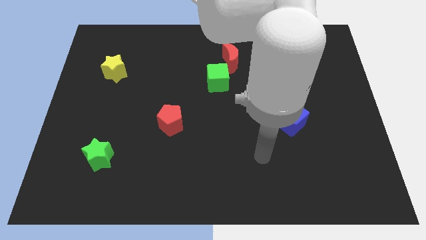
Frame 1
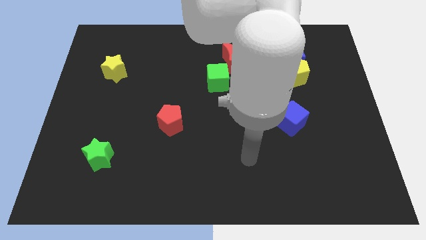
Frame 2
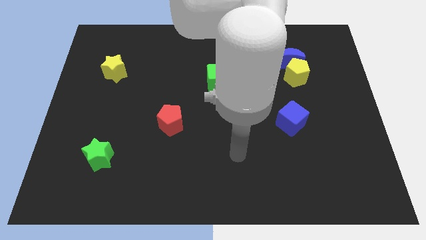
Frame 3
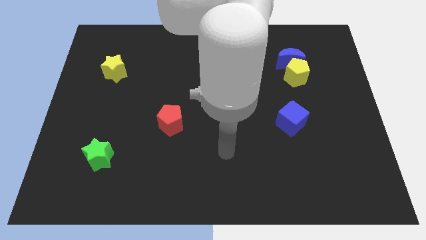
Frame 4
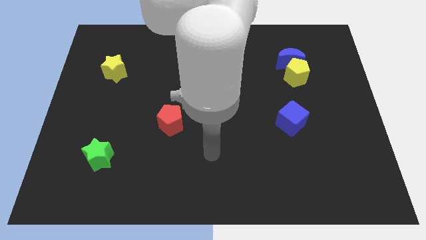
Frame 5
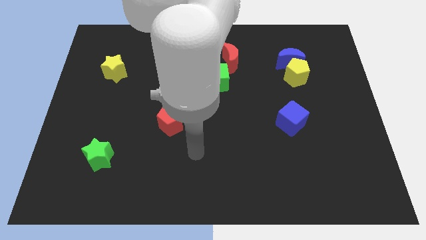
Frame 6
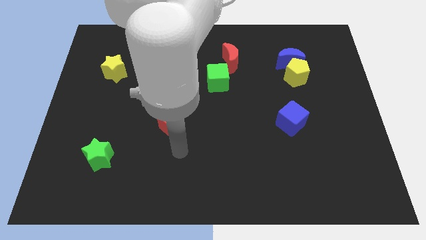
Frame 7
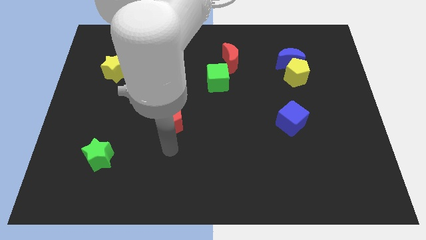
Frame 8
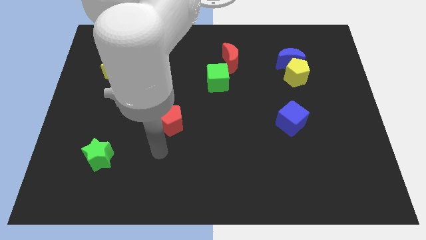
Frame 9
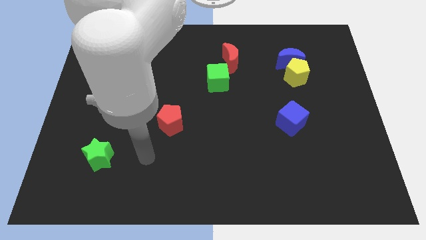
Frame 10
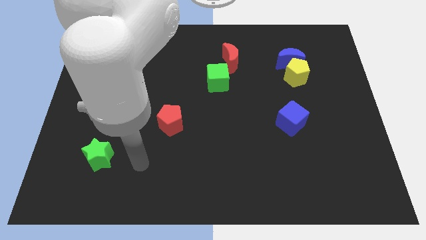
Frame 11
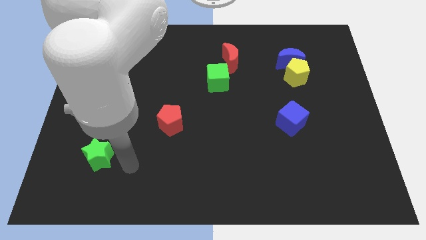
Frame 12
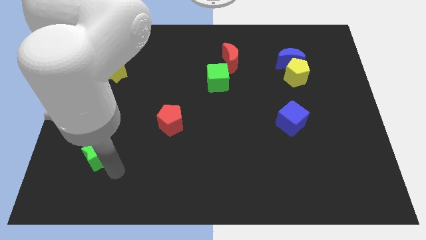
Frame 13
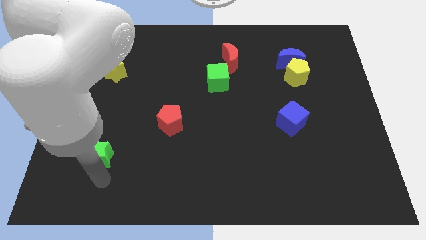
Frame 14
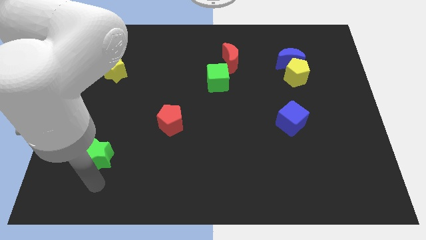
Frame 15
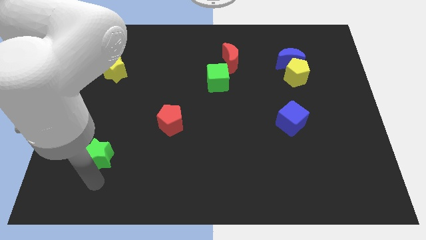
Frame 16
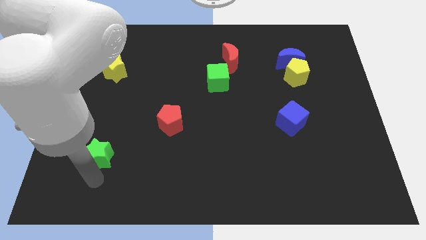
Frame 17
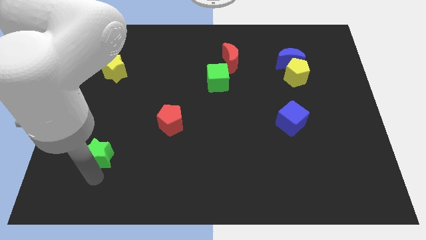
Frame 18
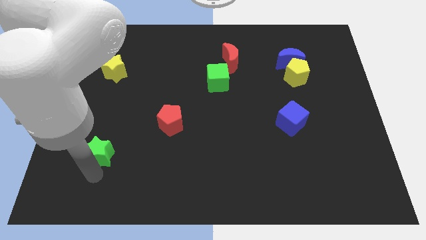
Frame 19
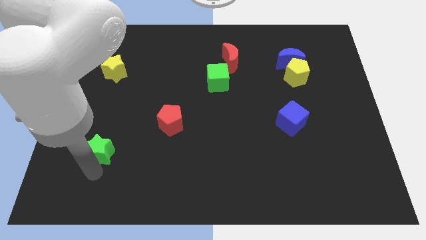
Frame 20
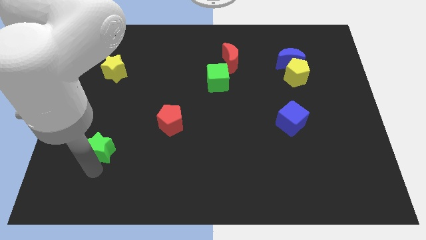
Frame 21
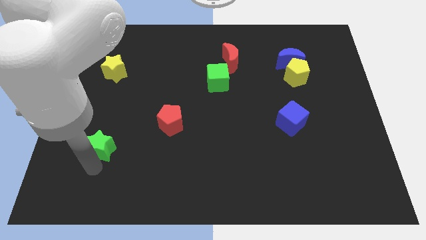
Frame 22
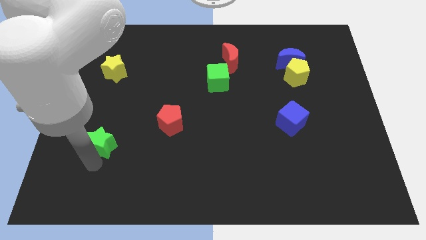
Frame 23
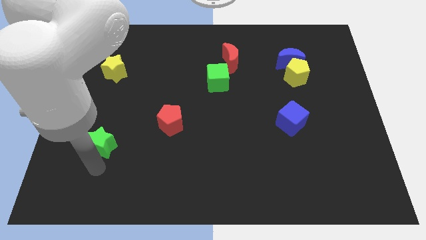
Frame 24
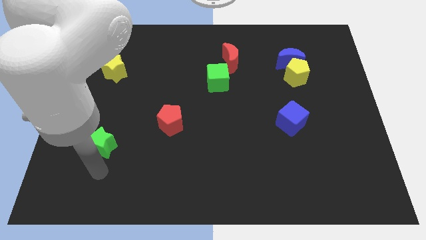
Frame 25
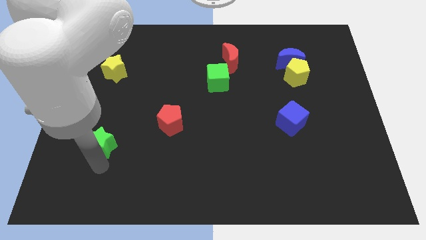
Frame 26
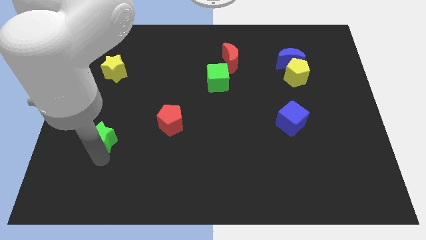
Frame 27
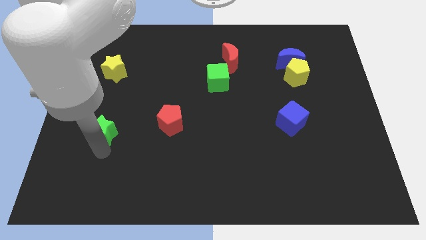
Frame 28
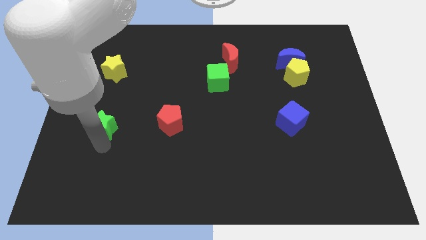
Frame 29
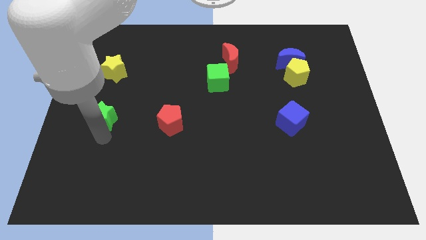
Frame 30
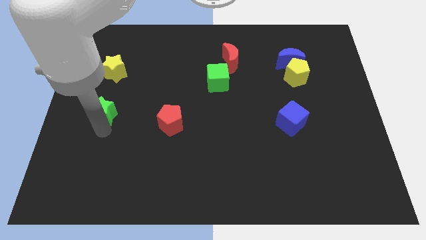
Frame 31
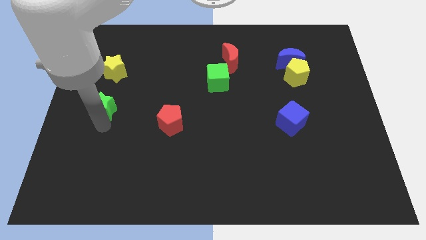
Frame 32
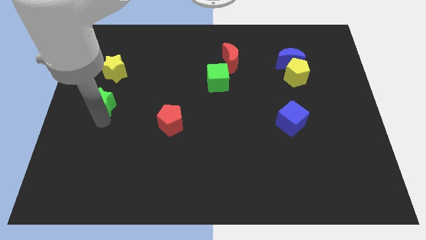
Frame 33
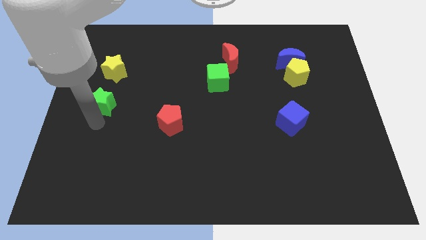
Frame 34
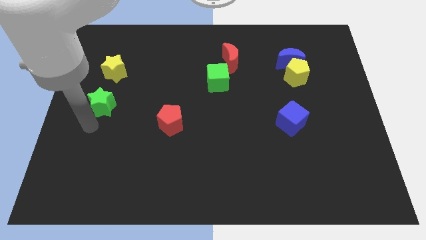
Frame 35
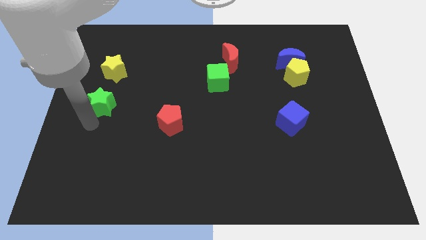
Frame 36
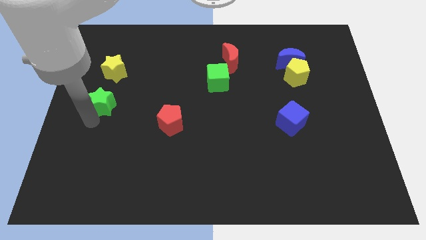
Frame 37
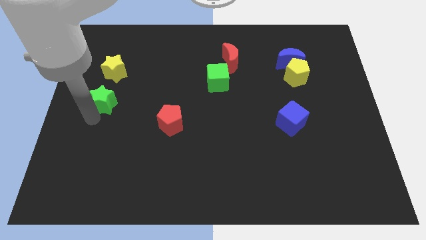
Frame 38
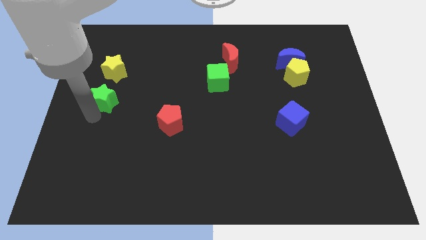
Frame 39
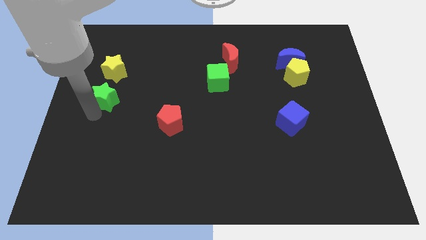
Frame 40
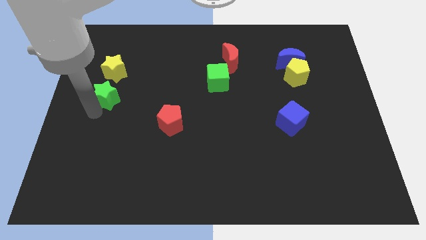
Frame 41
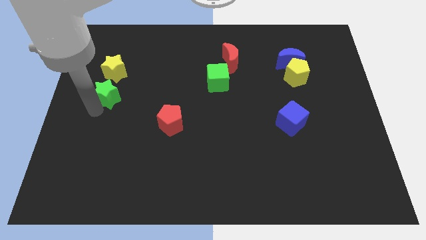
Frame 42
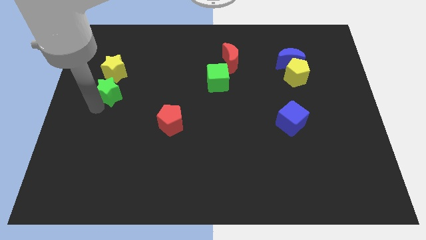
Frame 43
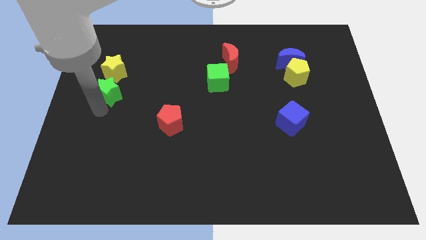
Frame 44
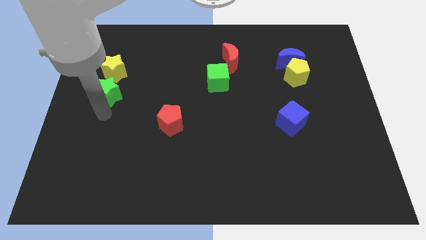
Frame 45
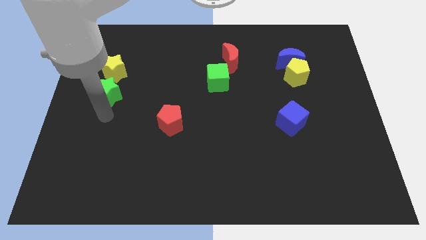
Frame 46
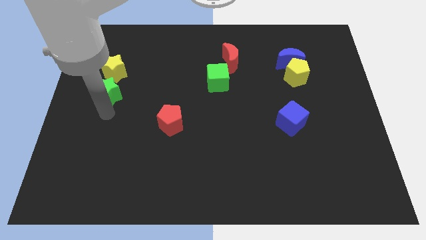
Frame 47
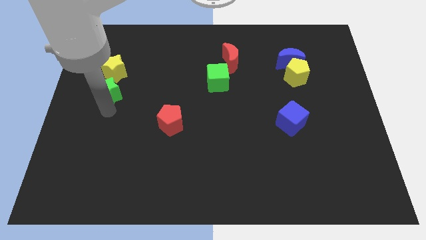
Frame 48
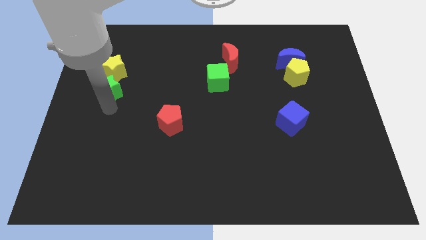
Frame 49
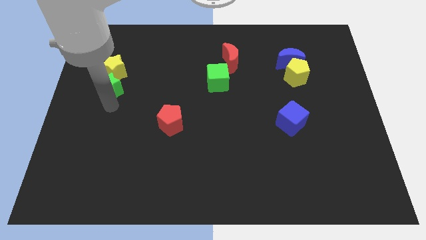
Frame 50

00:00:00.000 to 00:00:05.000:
push the green star close to the yellow star
